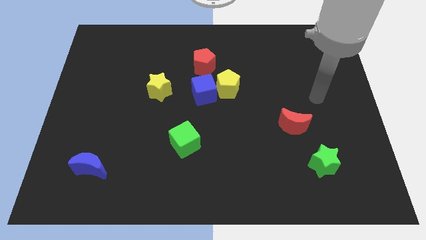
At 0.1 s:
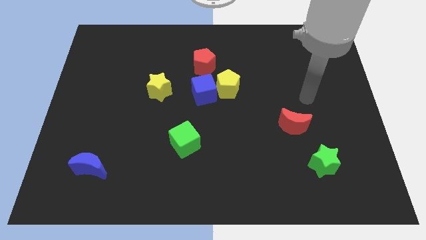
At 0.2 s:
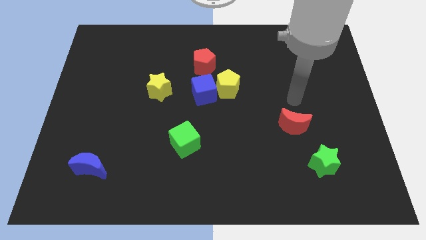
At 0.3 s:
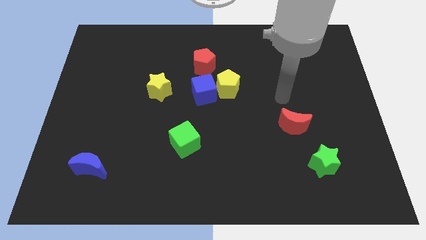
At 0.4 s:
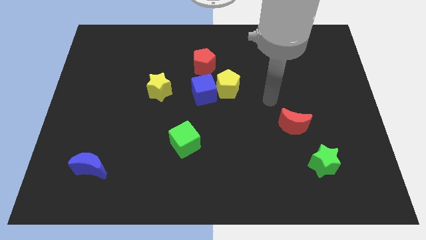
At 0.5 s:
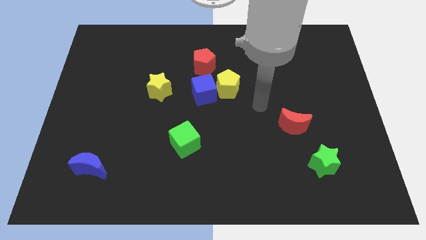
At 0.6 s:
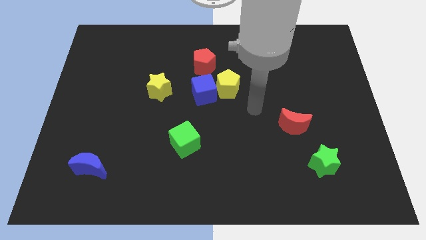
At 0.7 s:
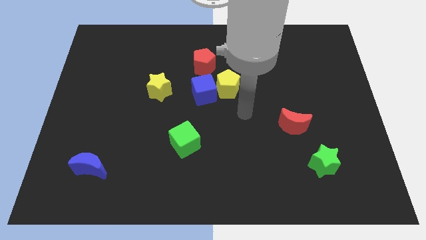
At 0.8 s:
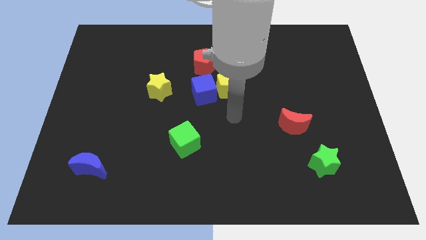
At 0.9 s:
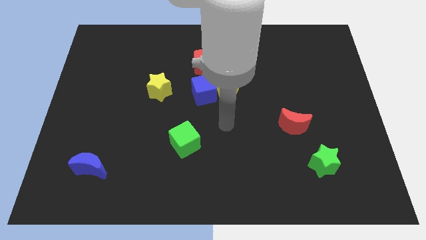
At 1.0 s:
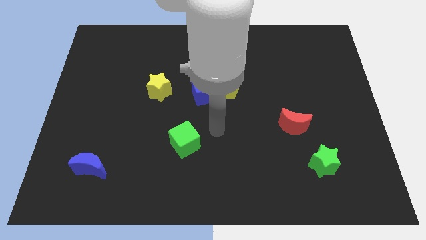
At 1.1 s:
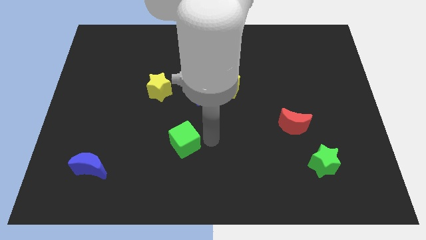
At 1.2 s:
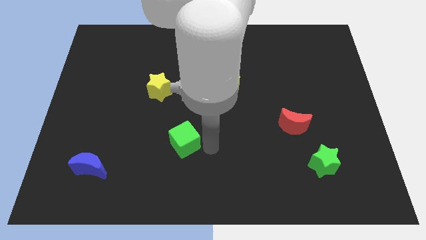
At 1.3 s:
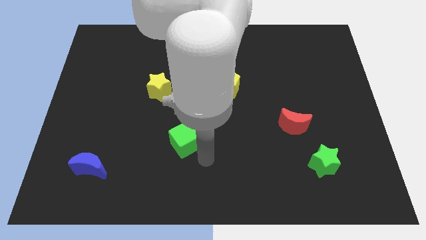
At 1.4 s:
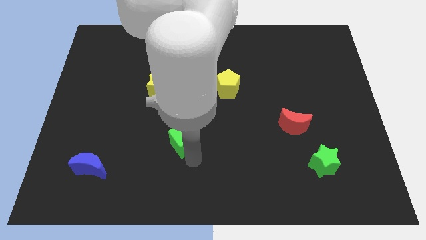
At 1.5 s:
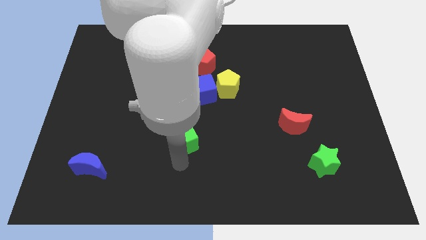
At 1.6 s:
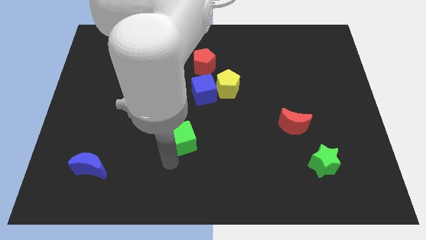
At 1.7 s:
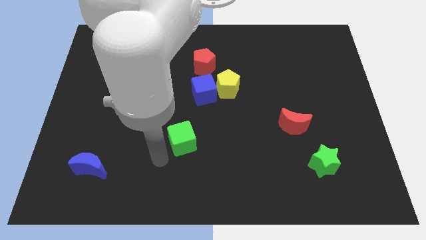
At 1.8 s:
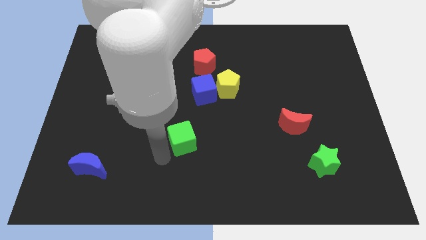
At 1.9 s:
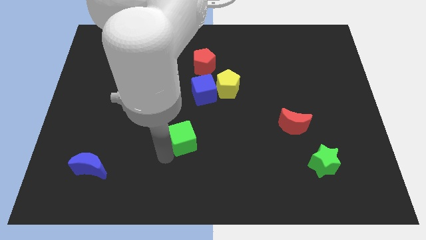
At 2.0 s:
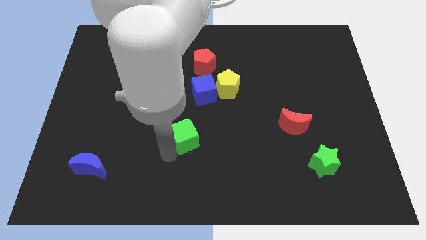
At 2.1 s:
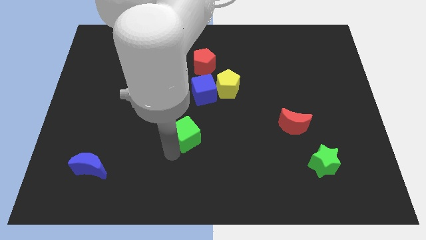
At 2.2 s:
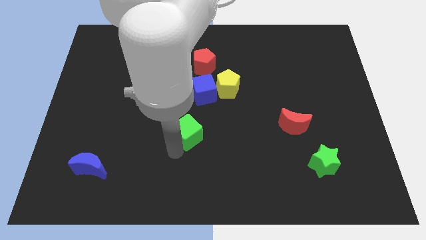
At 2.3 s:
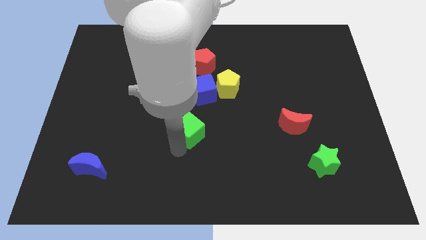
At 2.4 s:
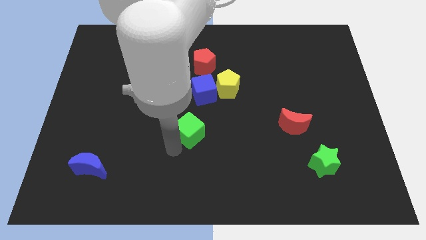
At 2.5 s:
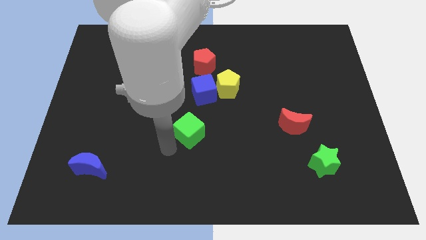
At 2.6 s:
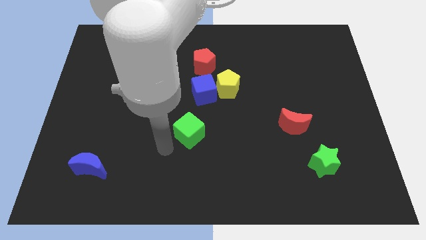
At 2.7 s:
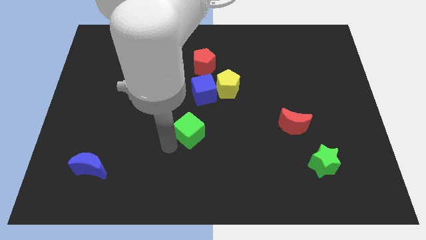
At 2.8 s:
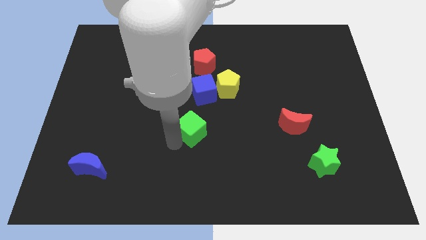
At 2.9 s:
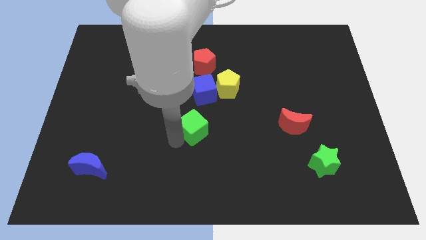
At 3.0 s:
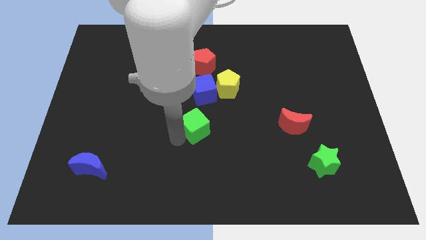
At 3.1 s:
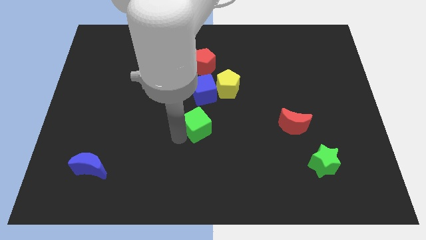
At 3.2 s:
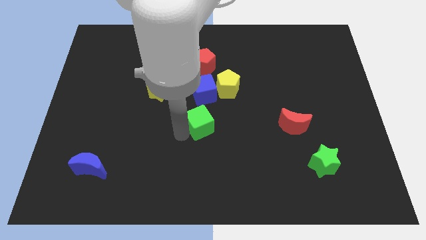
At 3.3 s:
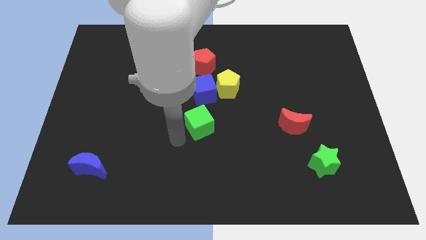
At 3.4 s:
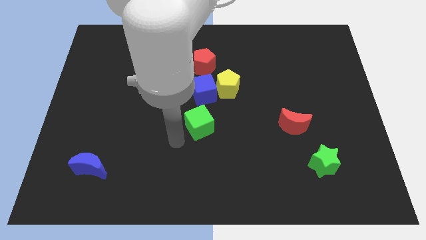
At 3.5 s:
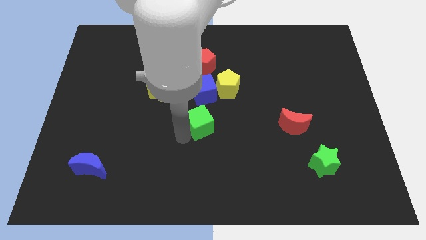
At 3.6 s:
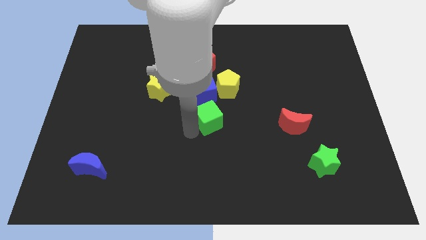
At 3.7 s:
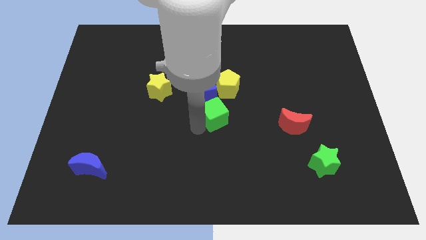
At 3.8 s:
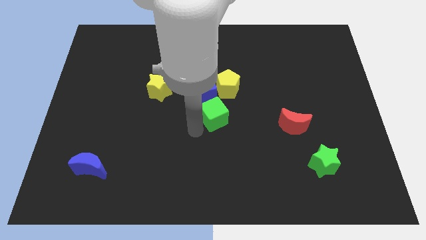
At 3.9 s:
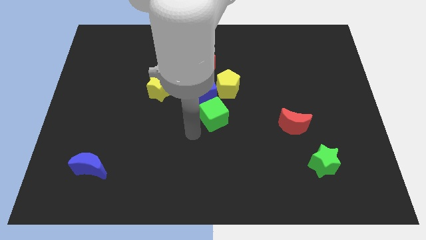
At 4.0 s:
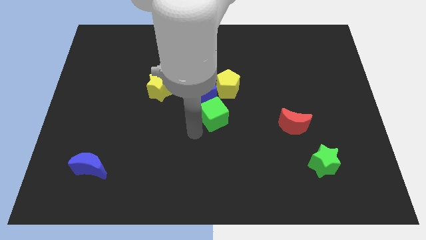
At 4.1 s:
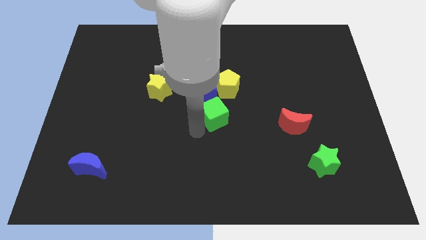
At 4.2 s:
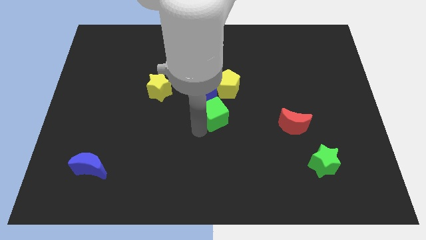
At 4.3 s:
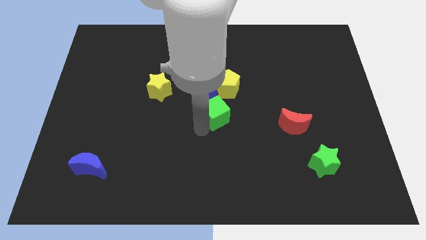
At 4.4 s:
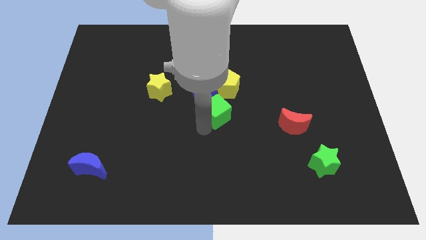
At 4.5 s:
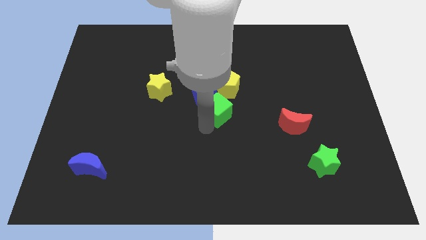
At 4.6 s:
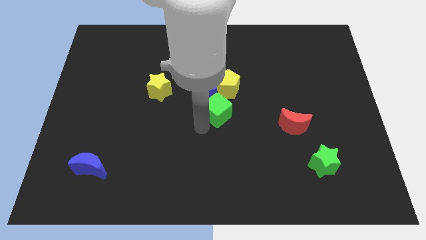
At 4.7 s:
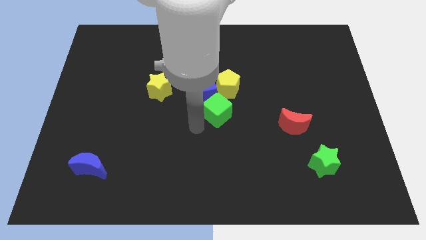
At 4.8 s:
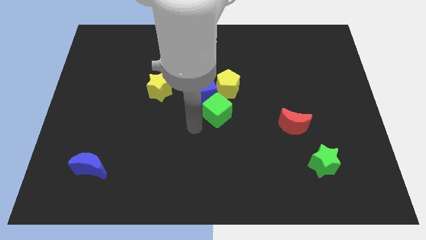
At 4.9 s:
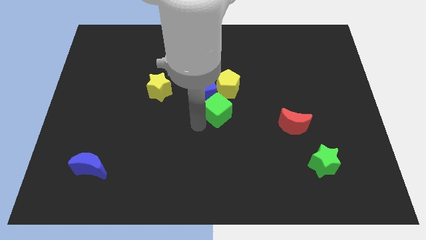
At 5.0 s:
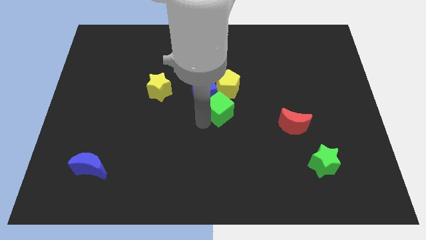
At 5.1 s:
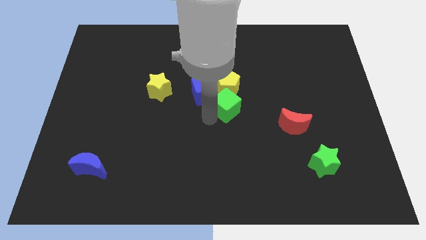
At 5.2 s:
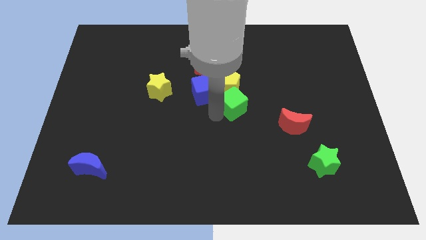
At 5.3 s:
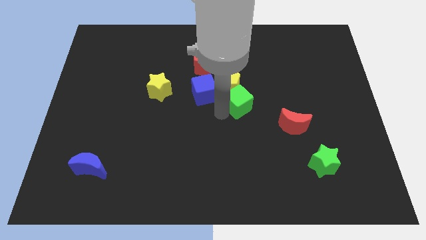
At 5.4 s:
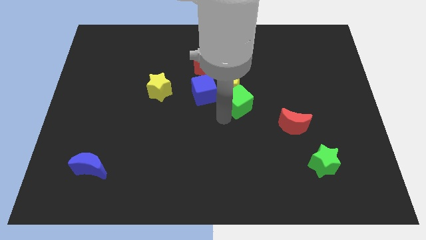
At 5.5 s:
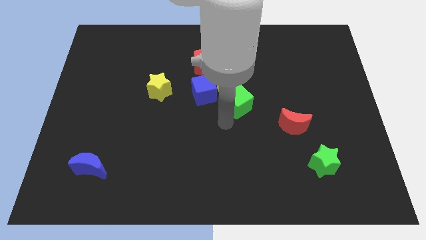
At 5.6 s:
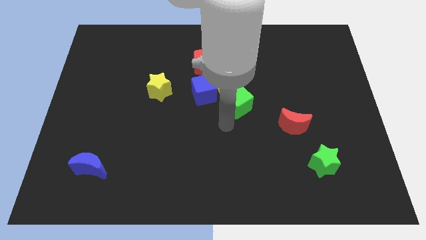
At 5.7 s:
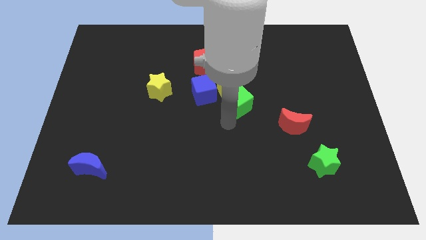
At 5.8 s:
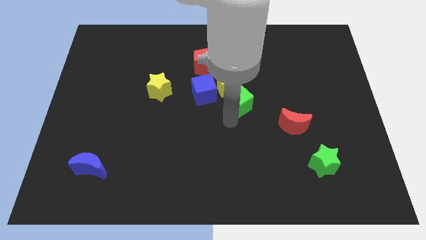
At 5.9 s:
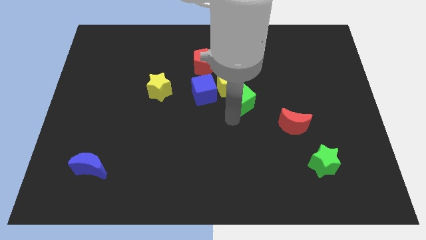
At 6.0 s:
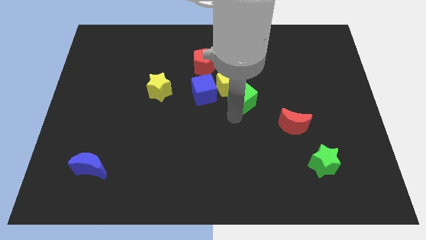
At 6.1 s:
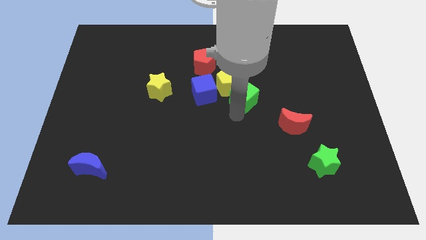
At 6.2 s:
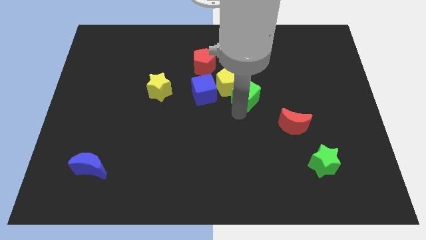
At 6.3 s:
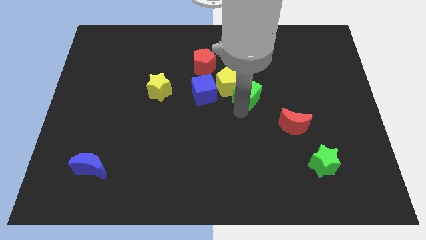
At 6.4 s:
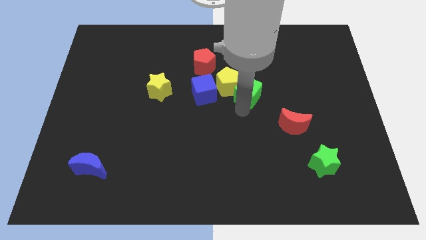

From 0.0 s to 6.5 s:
slide the green cube upwards and right diagonally

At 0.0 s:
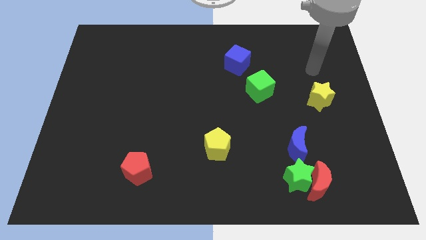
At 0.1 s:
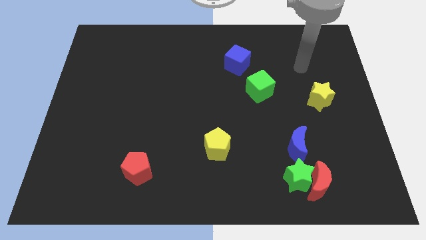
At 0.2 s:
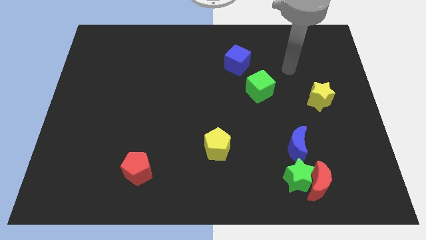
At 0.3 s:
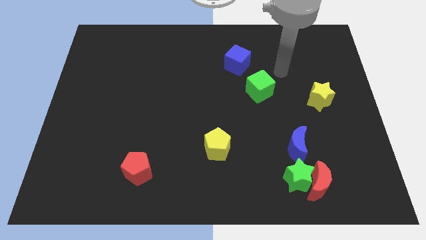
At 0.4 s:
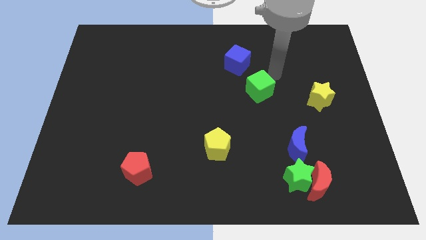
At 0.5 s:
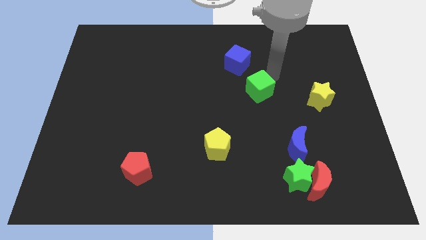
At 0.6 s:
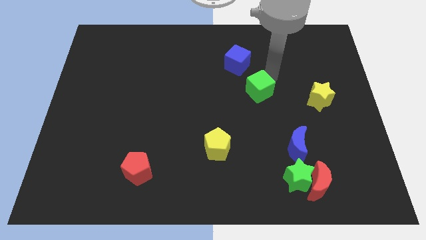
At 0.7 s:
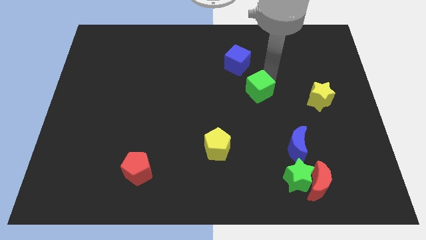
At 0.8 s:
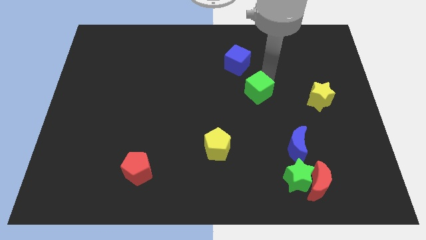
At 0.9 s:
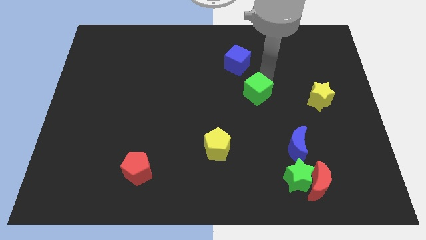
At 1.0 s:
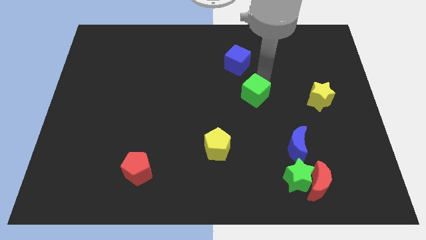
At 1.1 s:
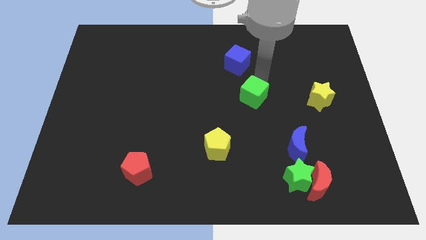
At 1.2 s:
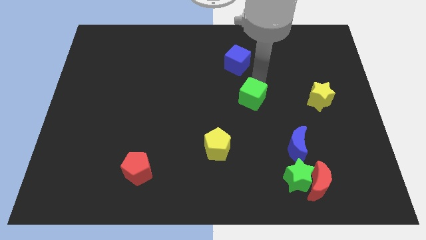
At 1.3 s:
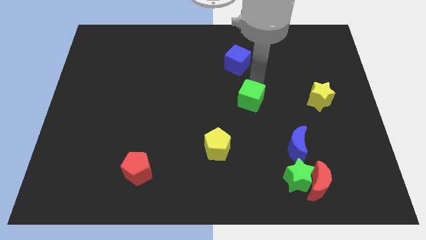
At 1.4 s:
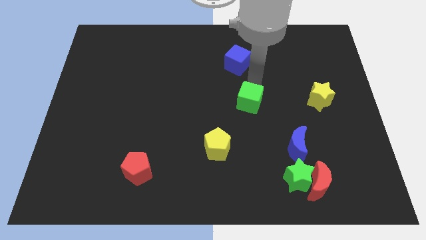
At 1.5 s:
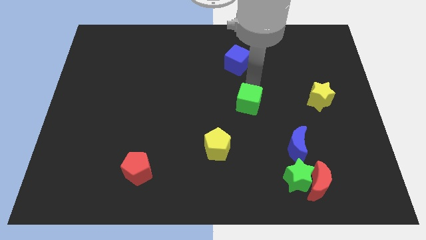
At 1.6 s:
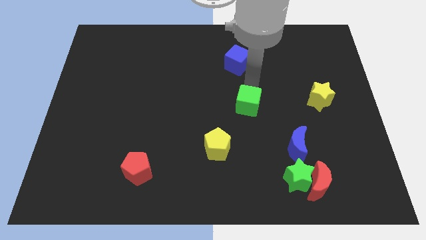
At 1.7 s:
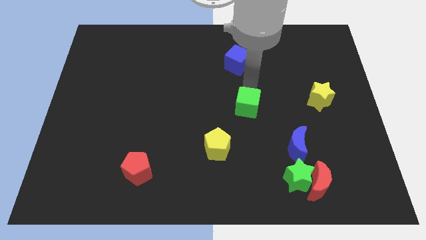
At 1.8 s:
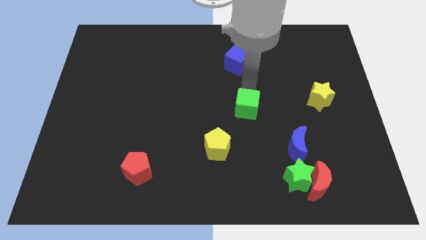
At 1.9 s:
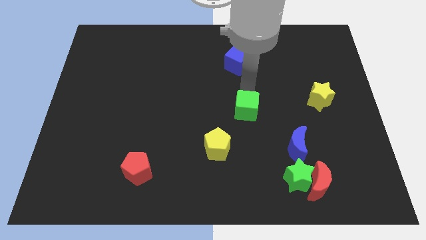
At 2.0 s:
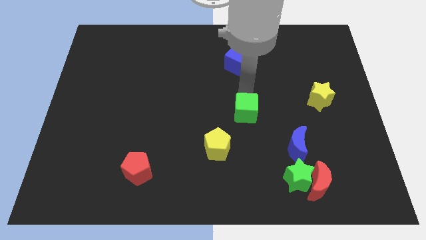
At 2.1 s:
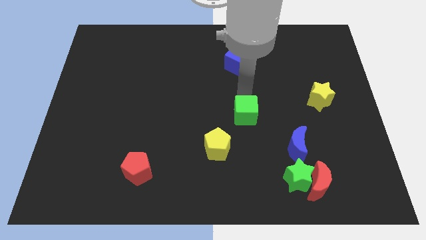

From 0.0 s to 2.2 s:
slightly push the green cube down
